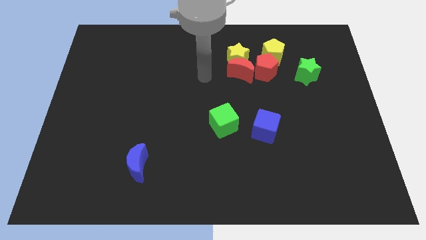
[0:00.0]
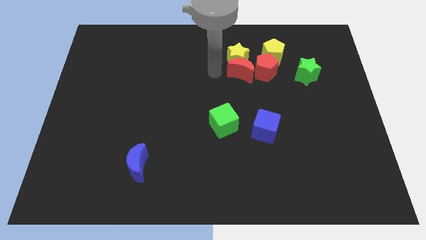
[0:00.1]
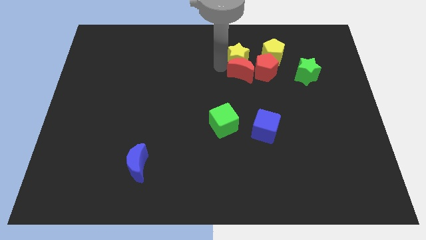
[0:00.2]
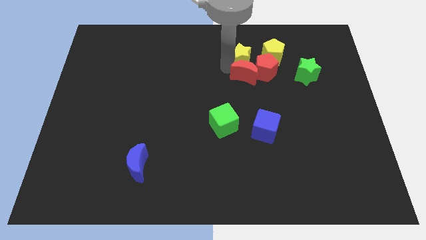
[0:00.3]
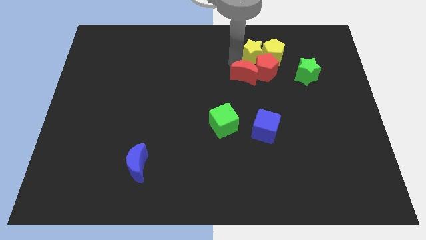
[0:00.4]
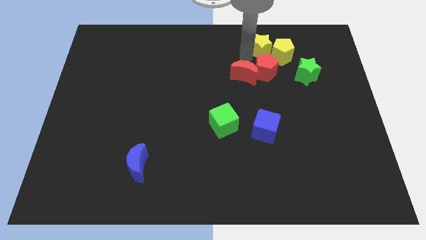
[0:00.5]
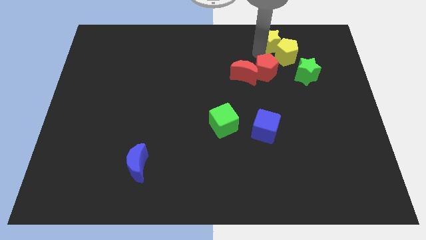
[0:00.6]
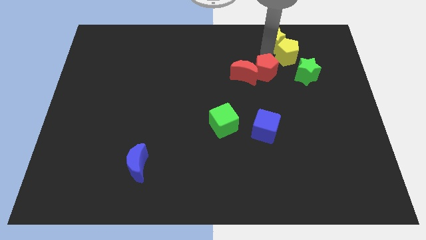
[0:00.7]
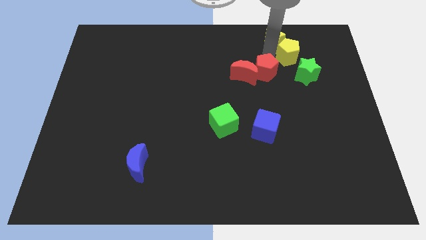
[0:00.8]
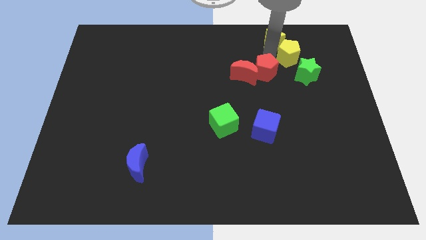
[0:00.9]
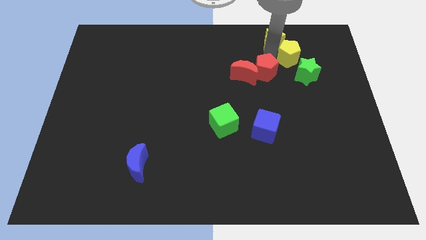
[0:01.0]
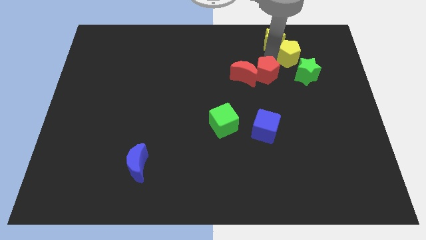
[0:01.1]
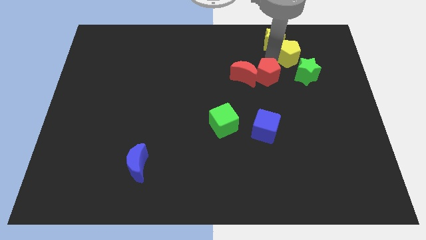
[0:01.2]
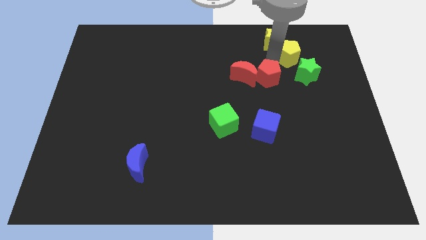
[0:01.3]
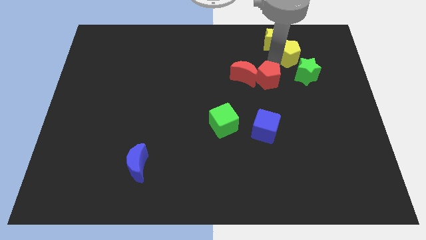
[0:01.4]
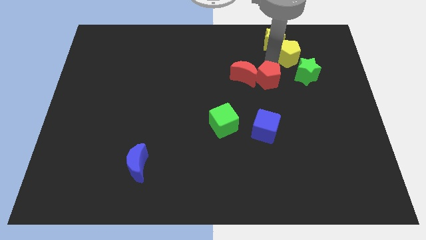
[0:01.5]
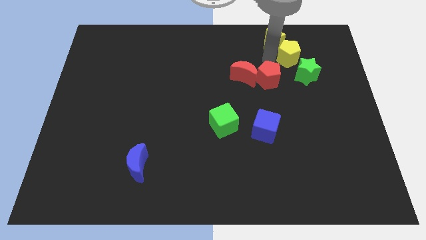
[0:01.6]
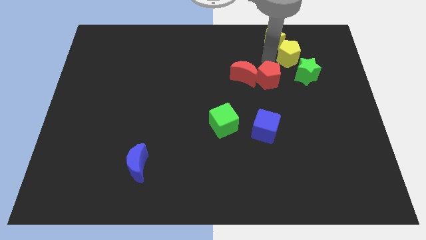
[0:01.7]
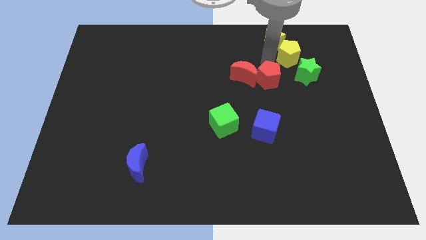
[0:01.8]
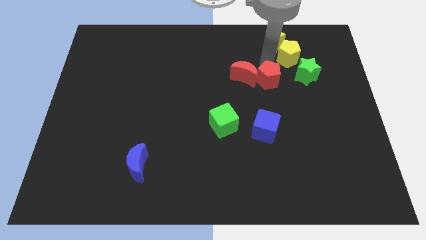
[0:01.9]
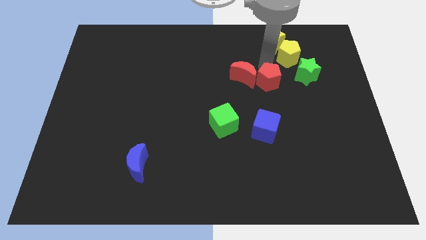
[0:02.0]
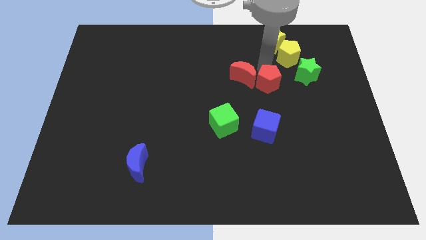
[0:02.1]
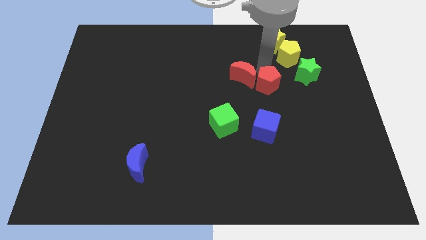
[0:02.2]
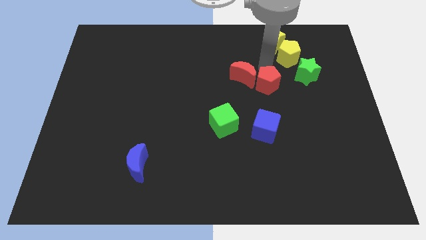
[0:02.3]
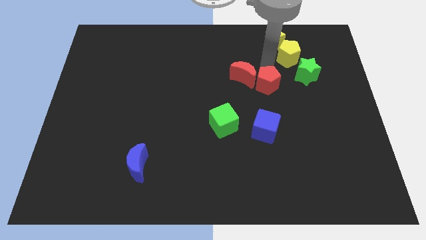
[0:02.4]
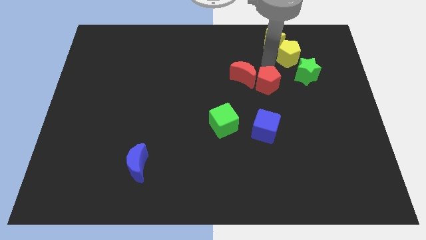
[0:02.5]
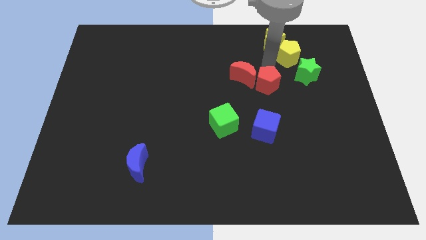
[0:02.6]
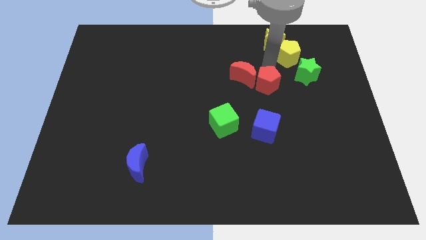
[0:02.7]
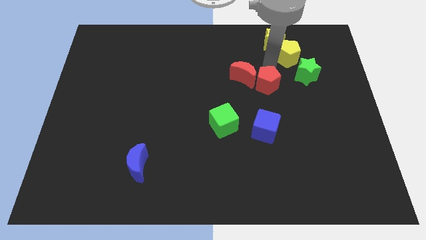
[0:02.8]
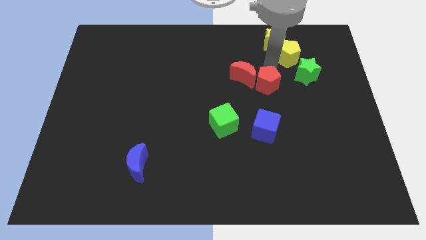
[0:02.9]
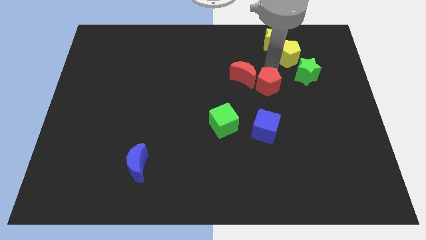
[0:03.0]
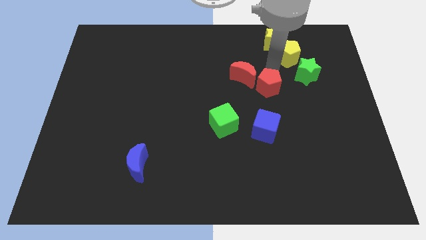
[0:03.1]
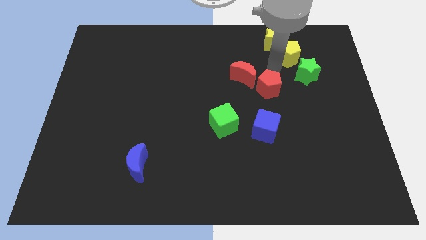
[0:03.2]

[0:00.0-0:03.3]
pull the red pentagon apart from the group of blocks

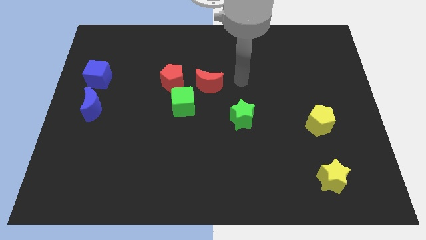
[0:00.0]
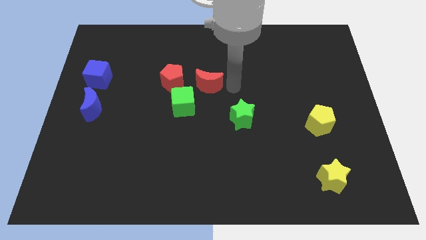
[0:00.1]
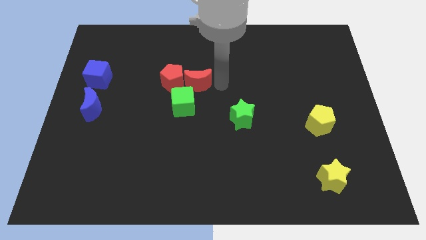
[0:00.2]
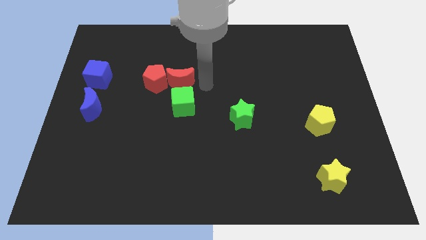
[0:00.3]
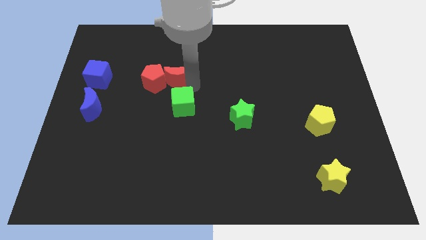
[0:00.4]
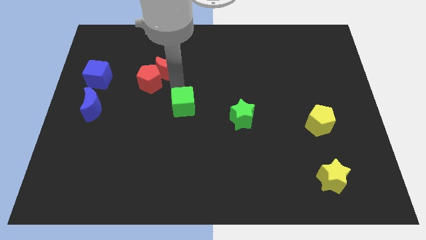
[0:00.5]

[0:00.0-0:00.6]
move the green cube away from the red pentagon and red moon

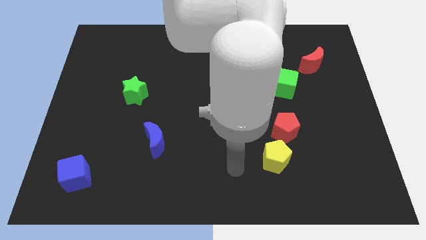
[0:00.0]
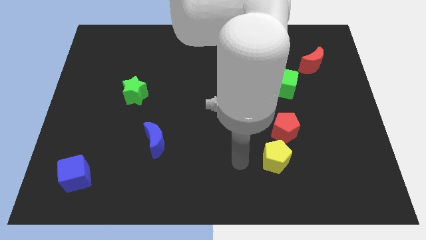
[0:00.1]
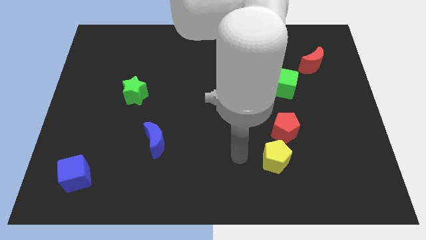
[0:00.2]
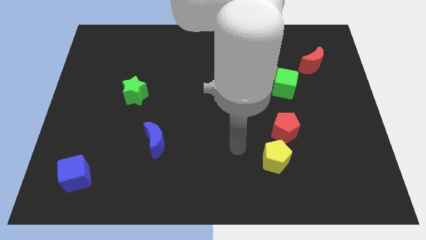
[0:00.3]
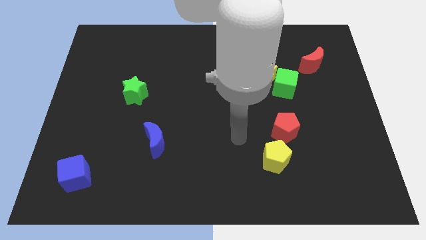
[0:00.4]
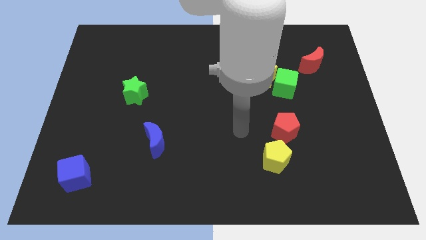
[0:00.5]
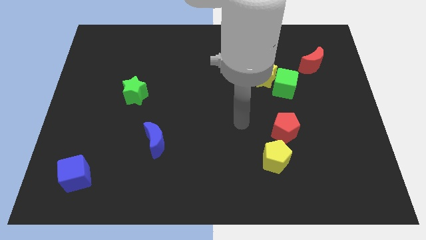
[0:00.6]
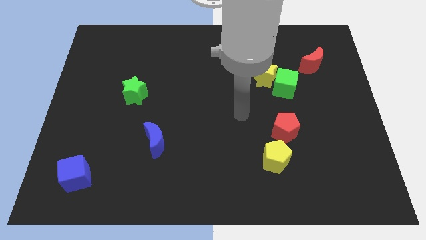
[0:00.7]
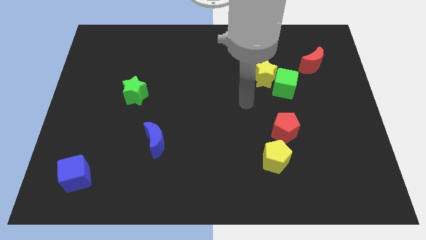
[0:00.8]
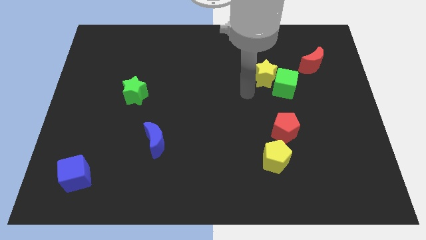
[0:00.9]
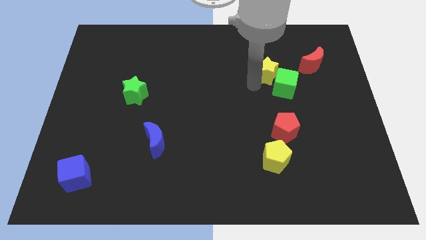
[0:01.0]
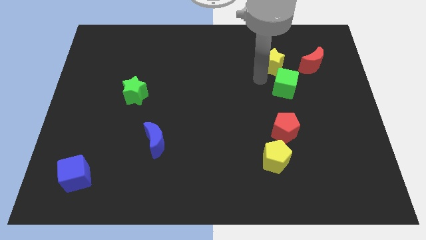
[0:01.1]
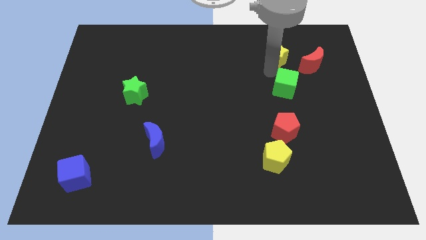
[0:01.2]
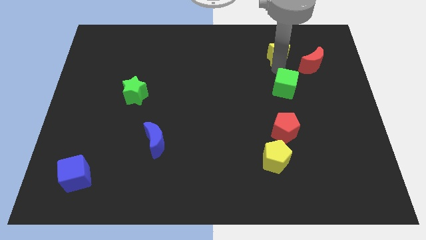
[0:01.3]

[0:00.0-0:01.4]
separate the green cube from the yellow star

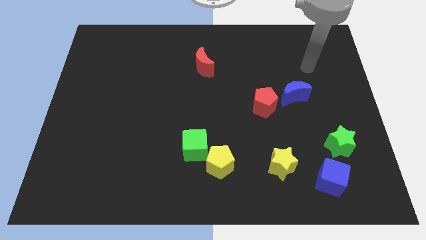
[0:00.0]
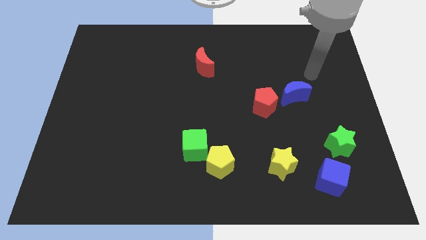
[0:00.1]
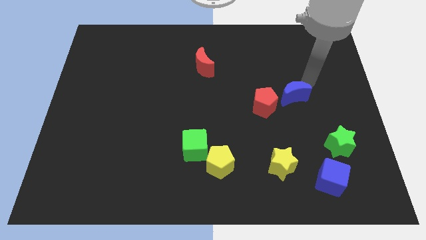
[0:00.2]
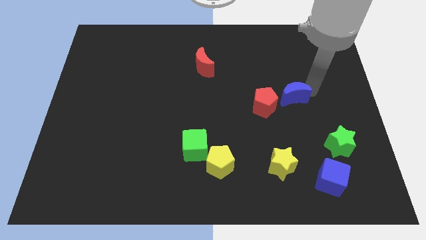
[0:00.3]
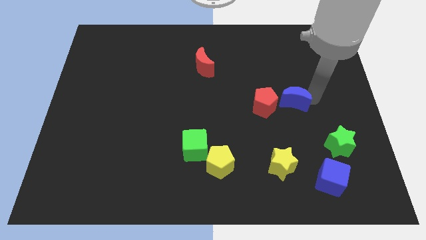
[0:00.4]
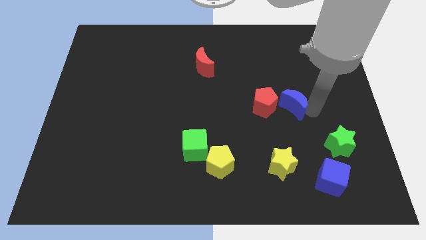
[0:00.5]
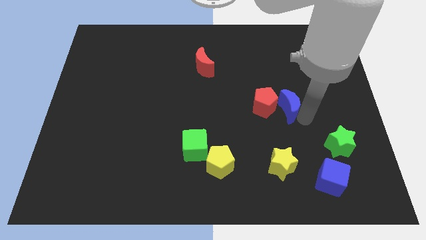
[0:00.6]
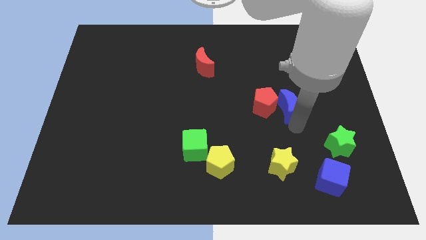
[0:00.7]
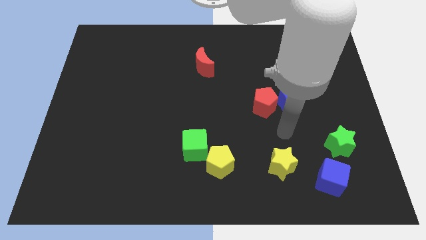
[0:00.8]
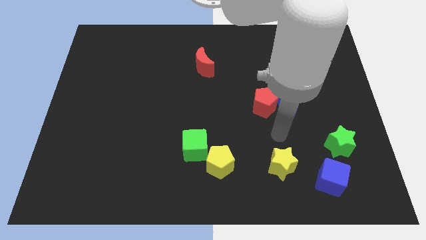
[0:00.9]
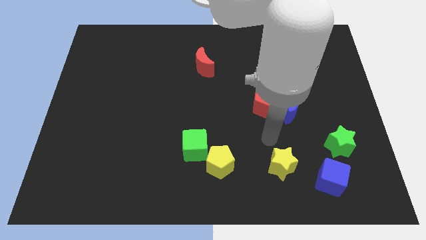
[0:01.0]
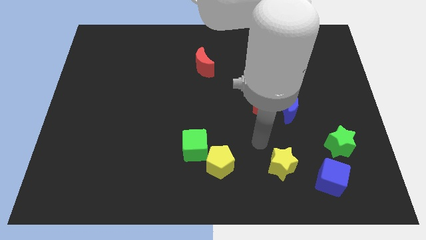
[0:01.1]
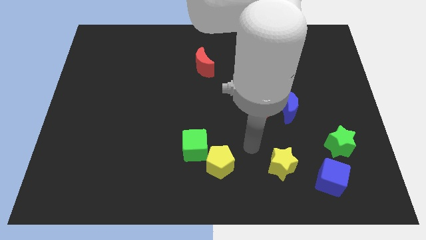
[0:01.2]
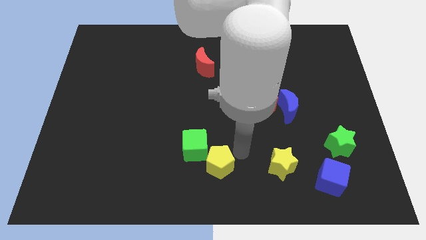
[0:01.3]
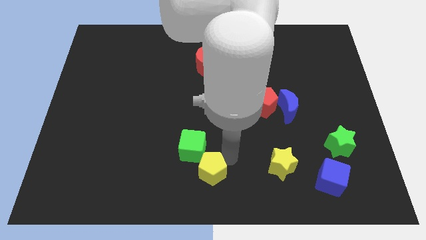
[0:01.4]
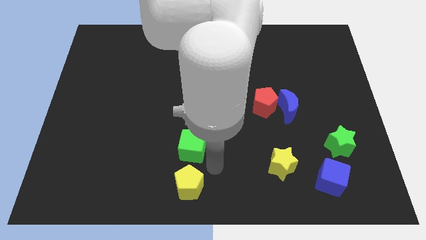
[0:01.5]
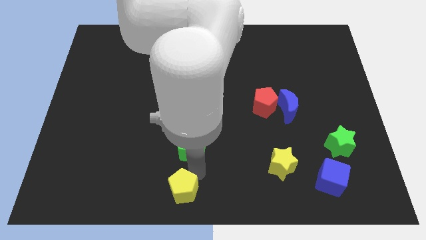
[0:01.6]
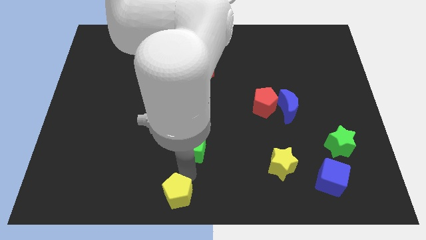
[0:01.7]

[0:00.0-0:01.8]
move the green cube away from the yellow pentagon

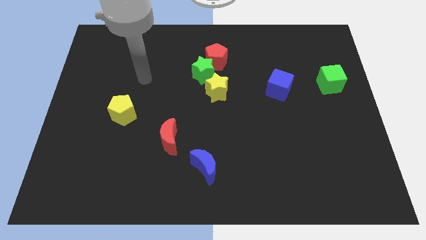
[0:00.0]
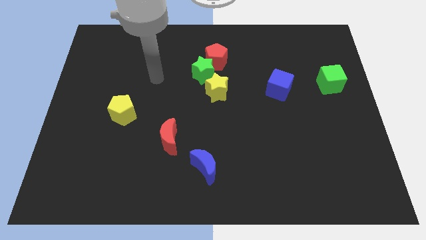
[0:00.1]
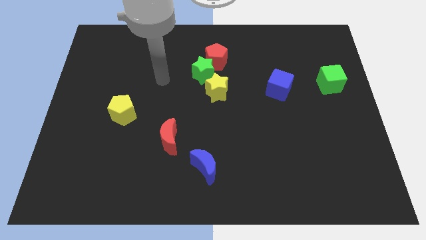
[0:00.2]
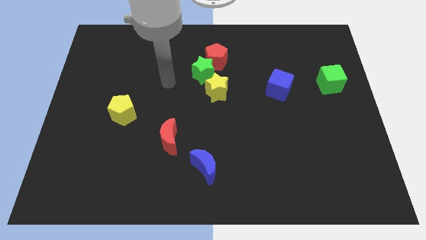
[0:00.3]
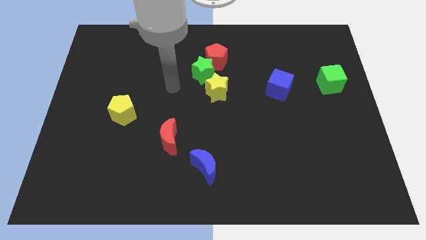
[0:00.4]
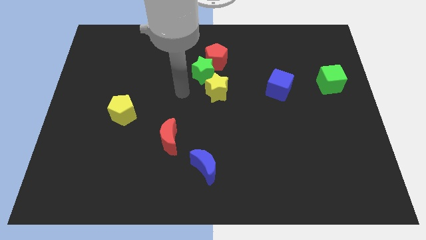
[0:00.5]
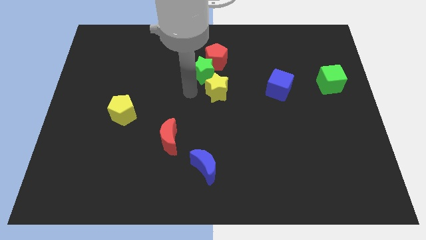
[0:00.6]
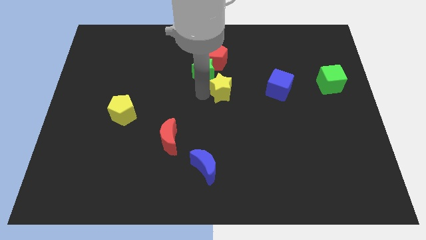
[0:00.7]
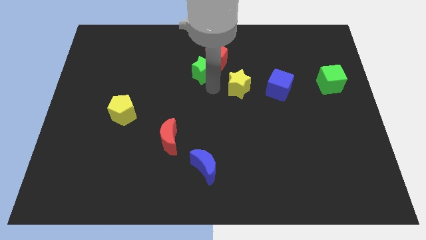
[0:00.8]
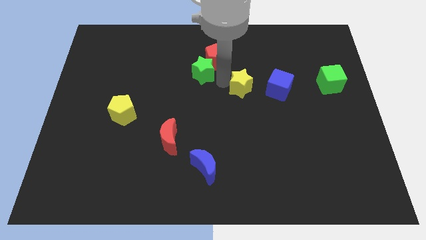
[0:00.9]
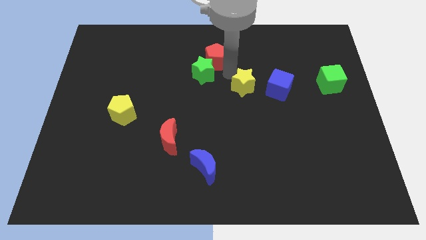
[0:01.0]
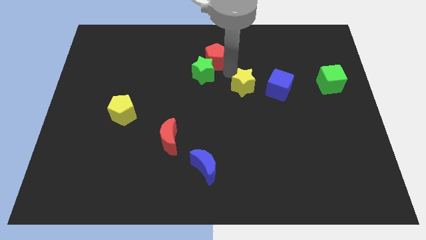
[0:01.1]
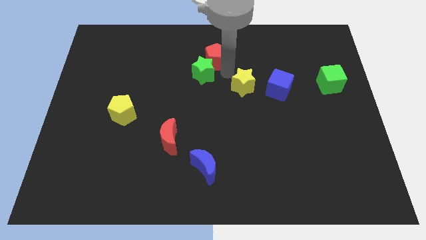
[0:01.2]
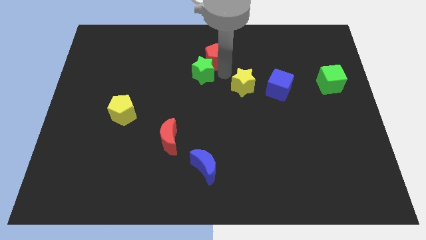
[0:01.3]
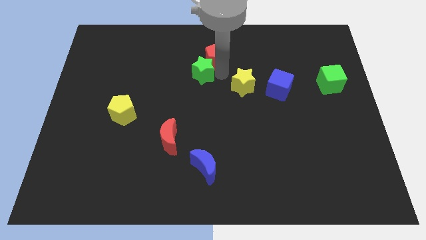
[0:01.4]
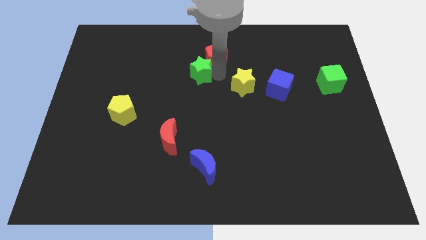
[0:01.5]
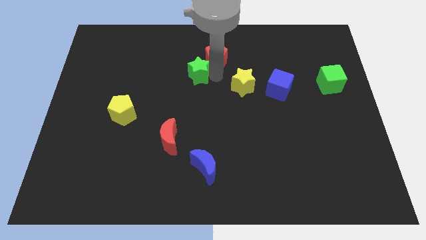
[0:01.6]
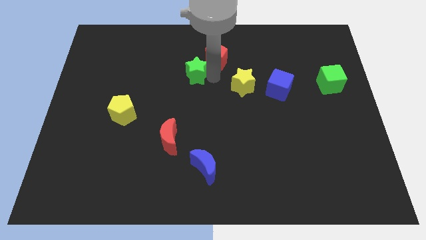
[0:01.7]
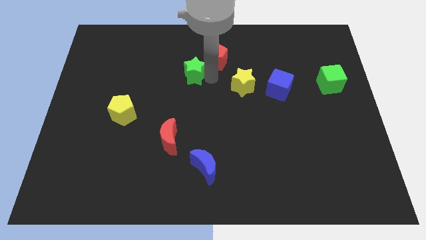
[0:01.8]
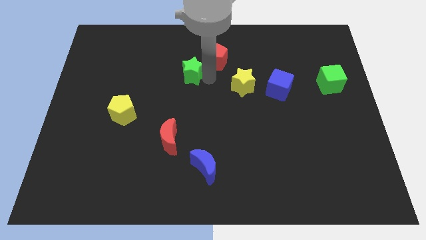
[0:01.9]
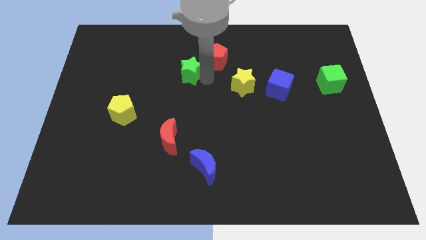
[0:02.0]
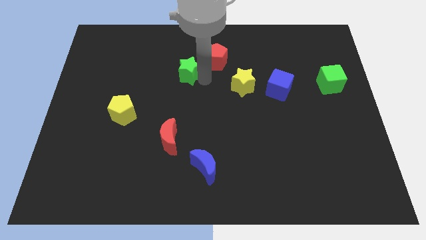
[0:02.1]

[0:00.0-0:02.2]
pull the green star apart from the red pentagon and yellow star

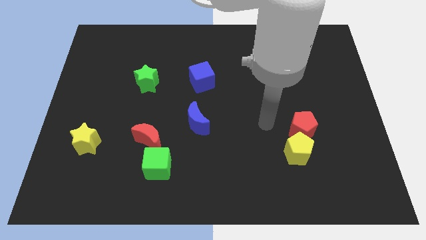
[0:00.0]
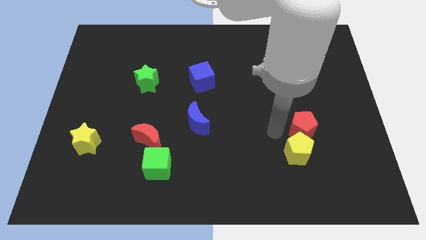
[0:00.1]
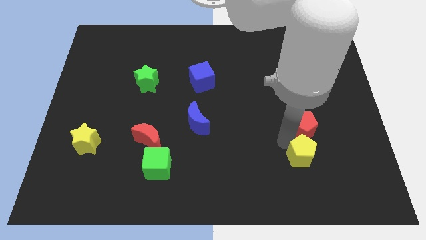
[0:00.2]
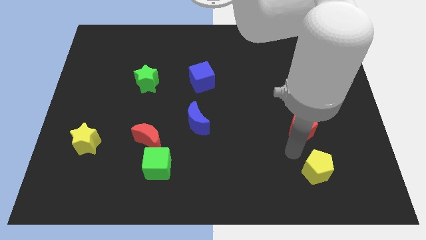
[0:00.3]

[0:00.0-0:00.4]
pull the red pentagon apart from the yellow pentagon
